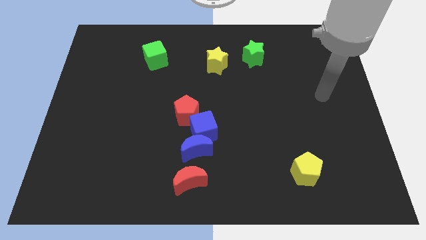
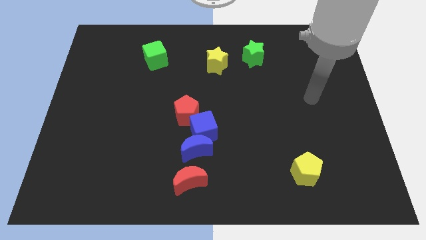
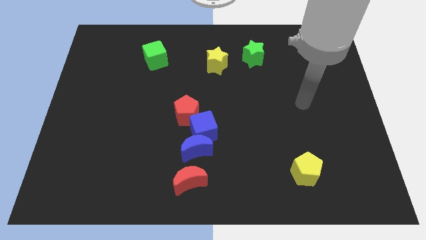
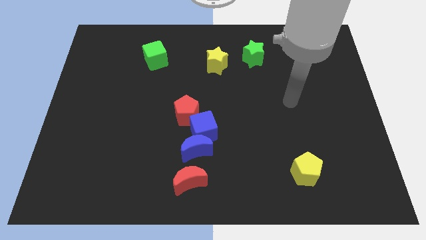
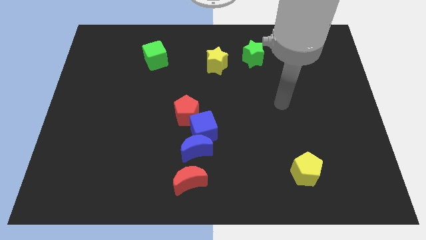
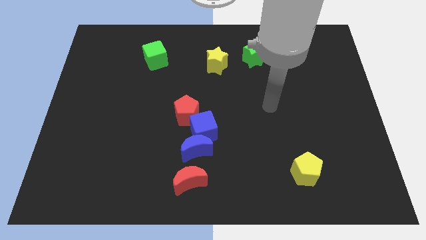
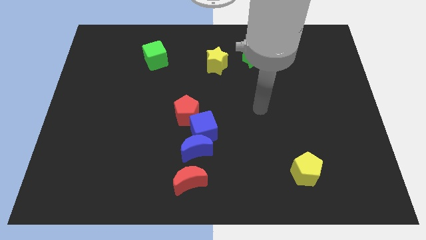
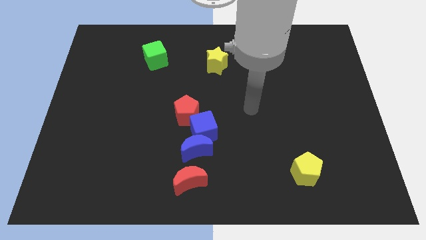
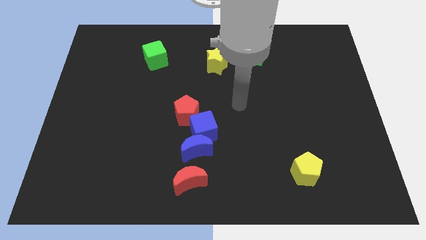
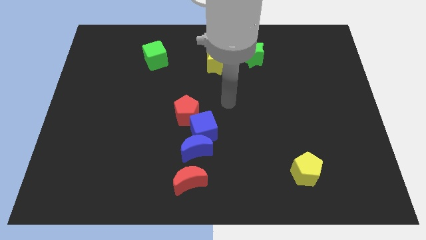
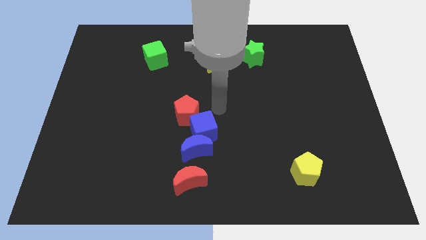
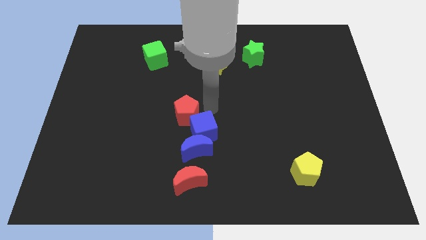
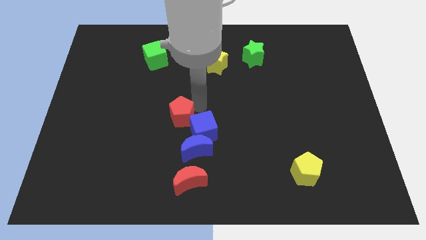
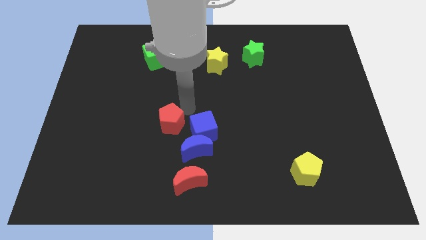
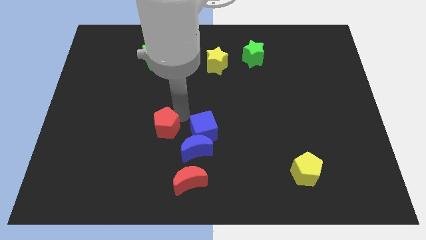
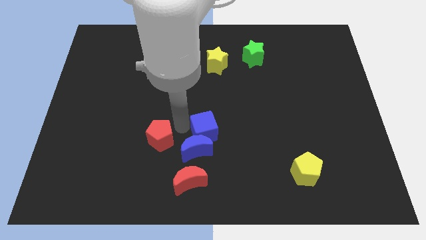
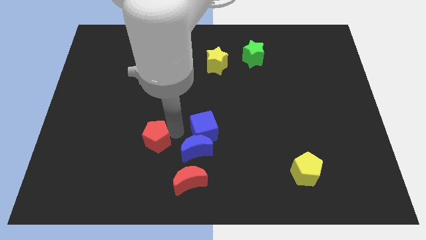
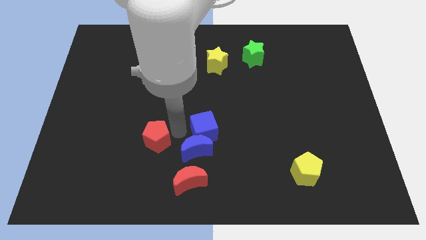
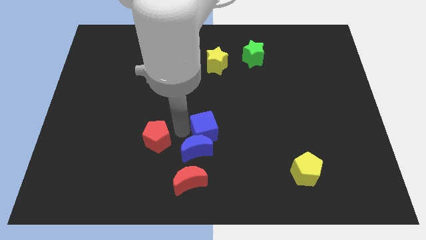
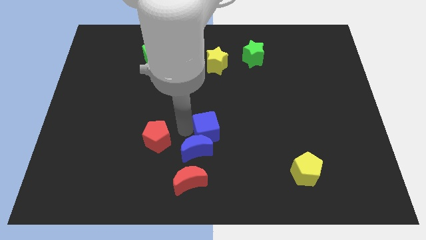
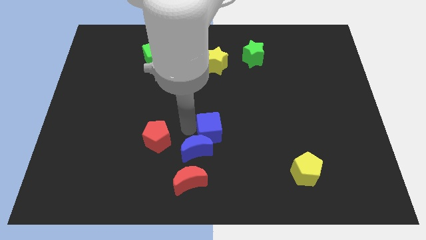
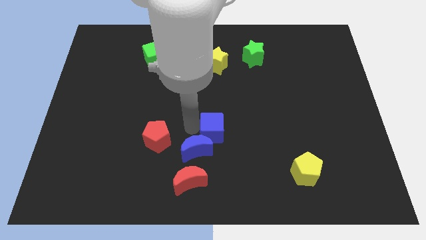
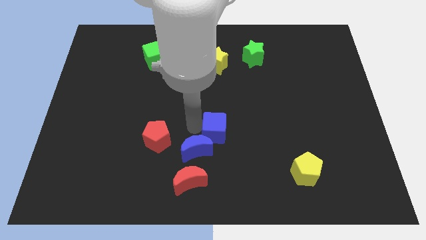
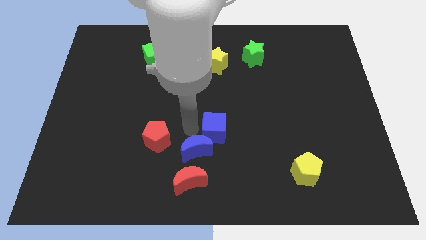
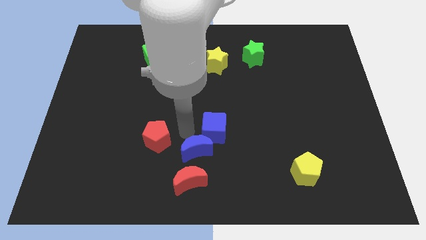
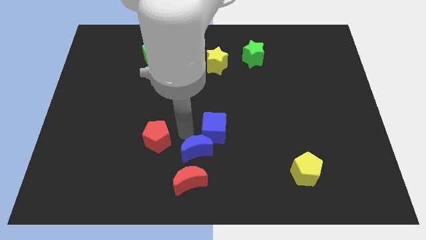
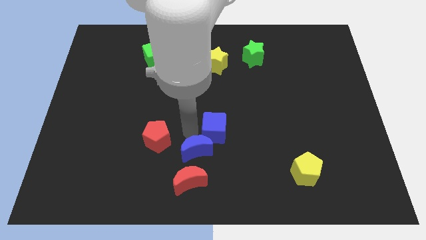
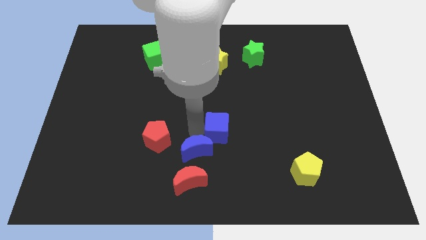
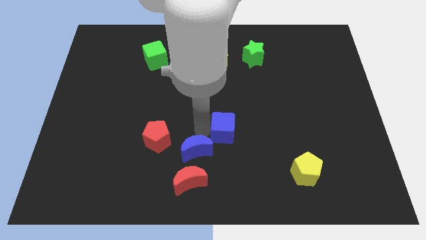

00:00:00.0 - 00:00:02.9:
move the blue cube away from the blue moon and red pentagon

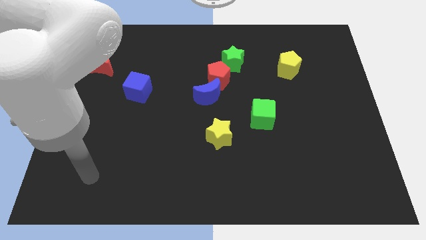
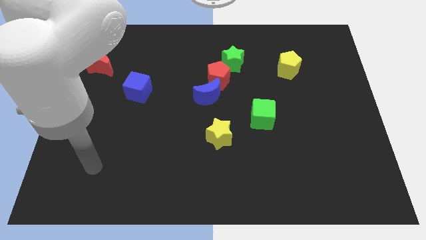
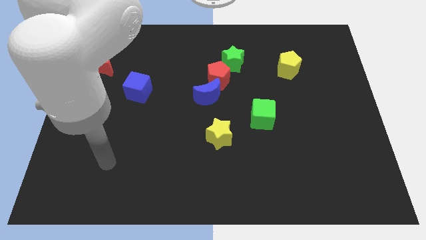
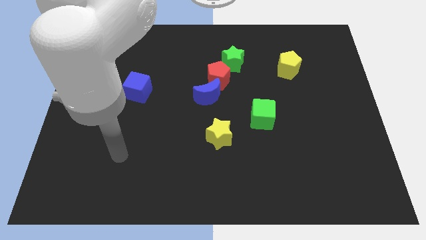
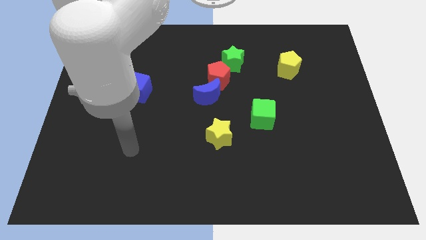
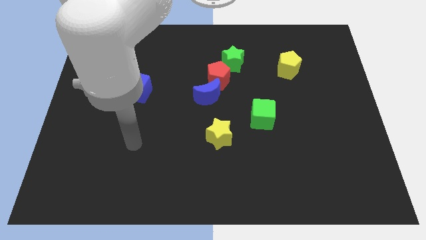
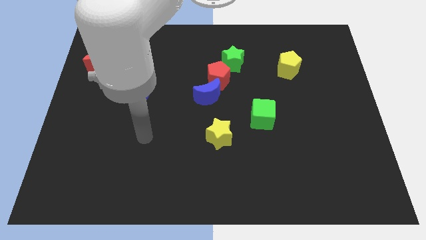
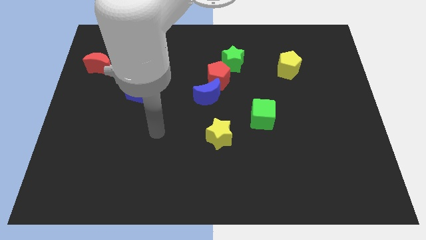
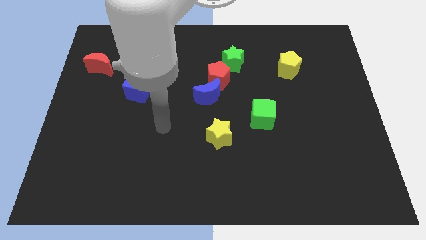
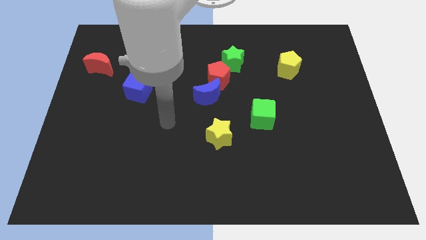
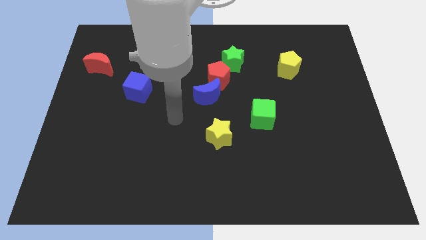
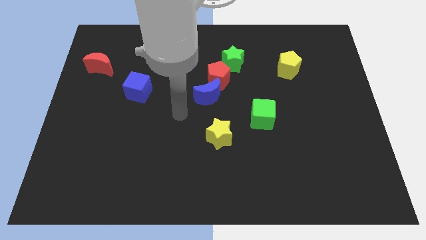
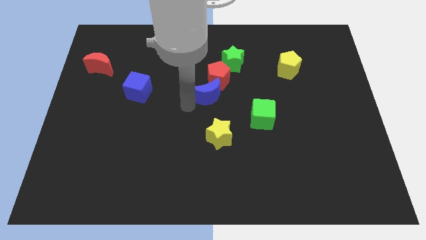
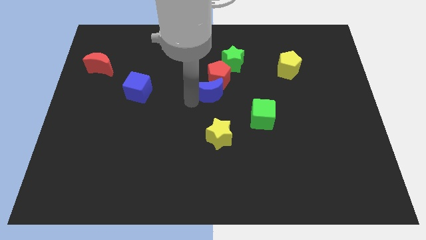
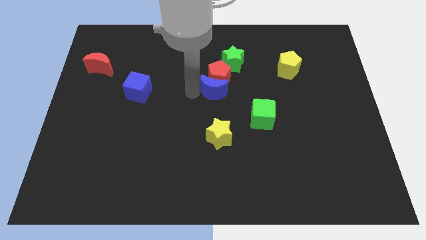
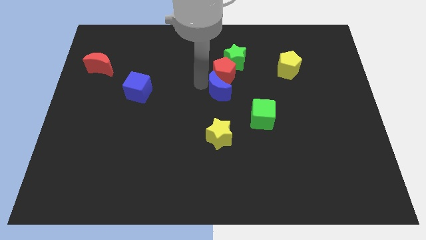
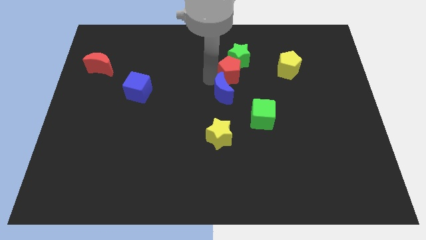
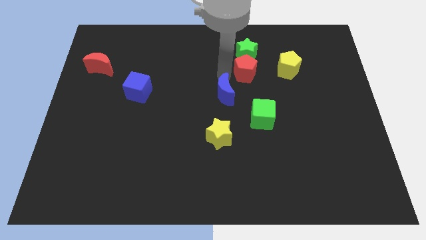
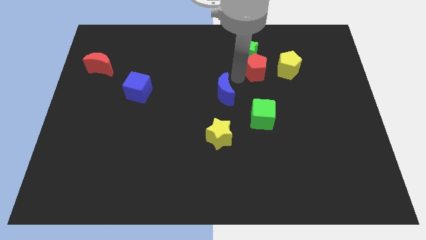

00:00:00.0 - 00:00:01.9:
move the blue moon away from the red pentagon

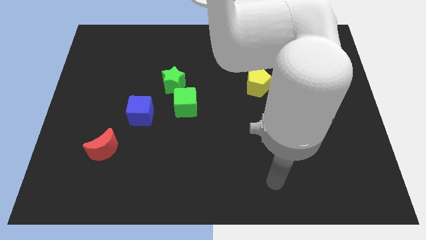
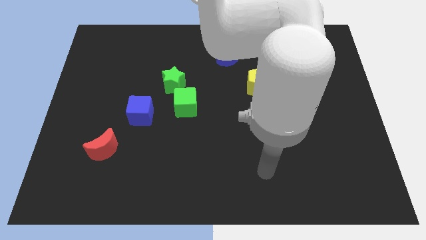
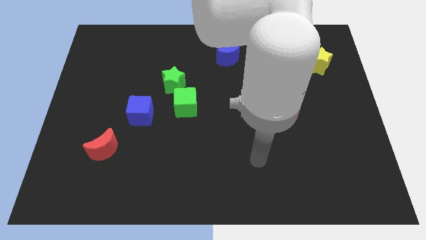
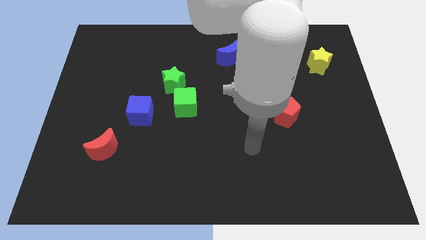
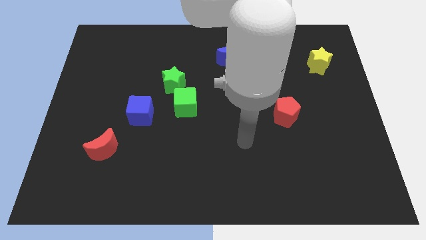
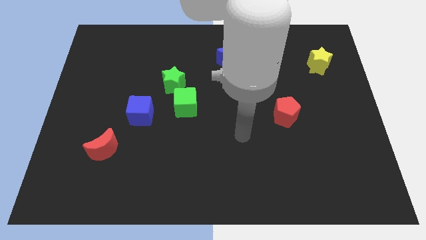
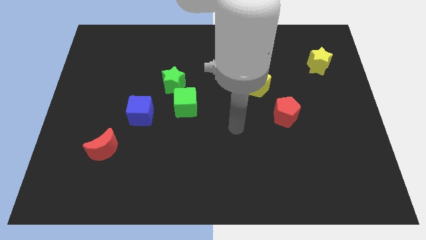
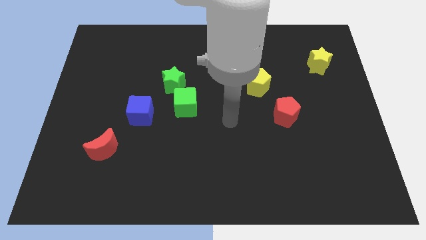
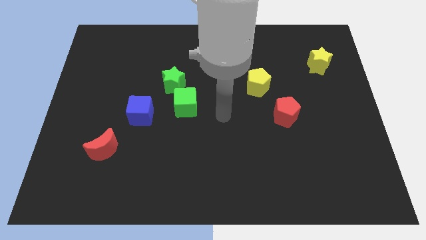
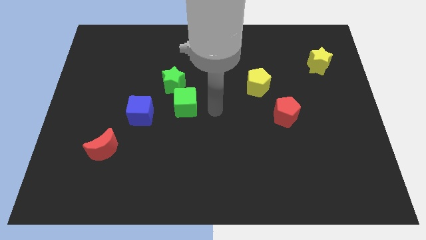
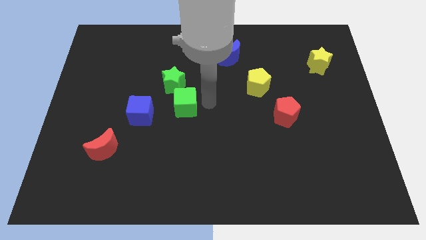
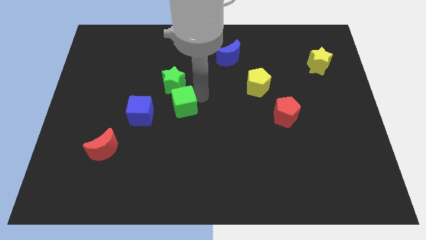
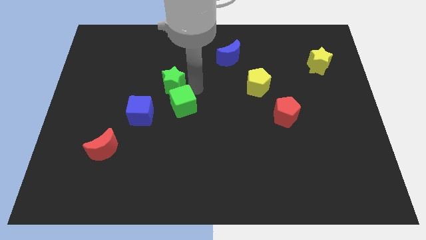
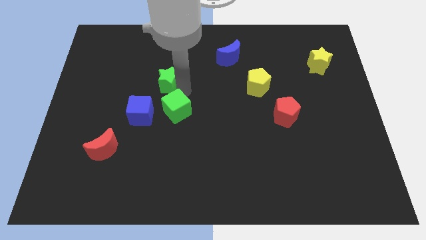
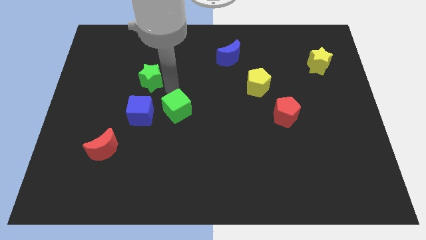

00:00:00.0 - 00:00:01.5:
pull the green cube apart from the green star

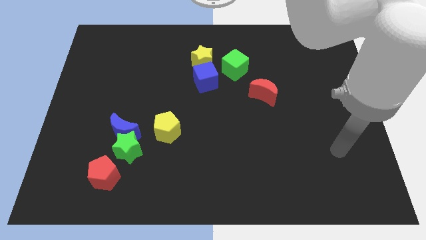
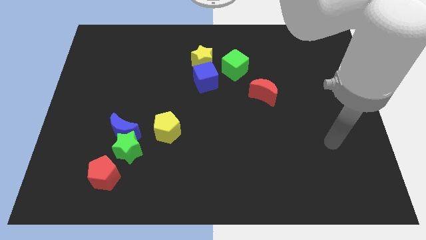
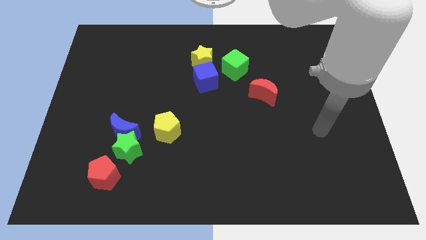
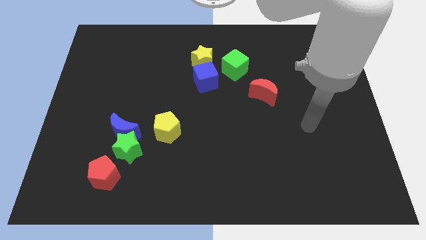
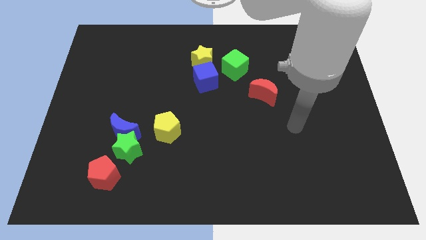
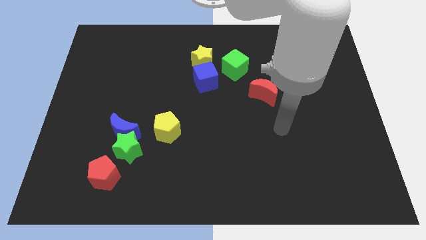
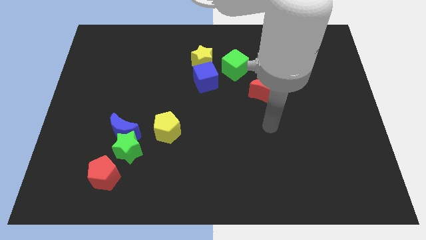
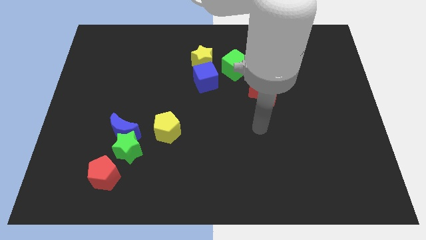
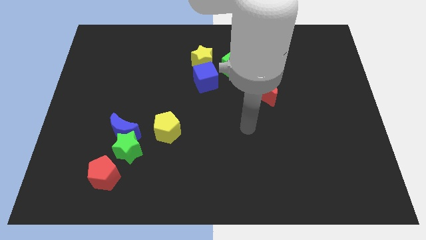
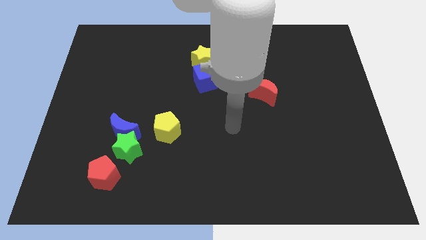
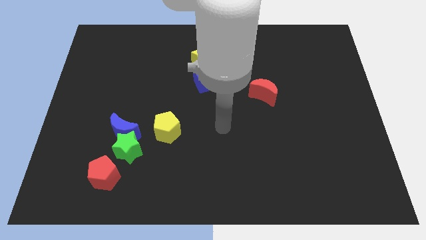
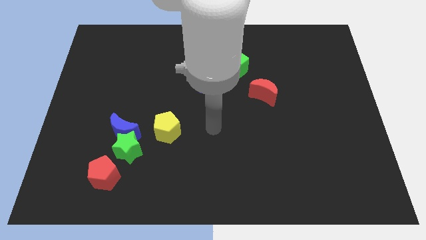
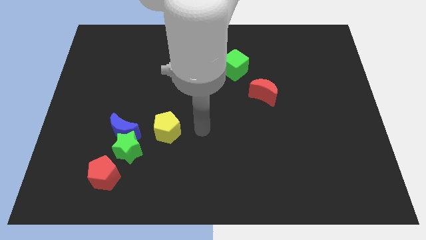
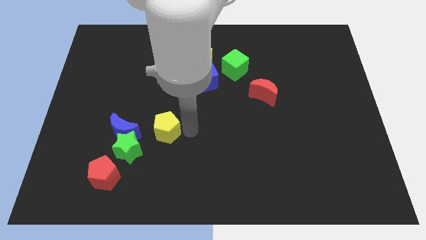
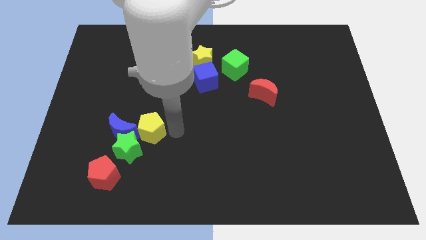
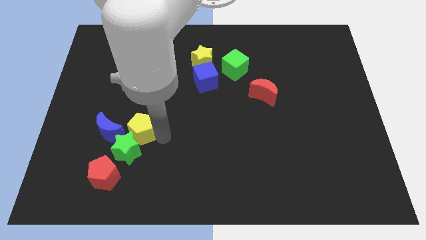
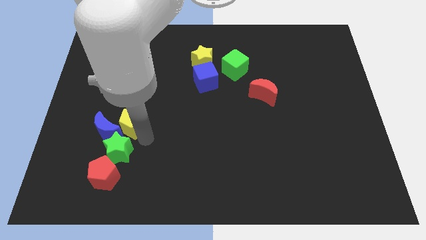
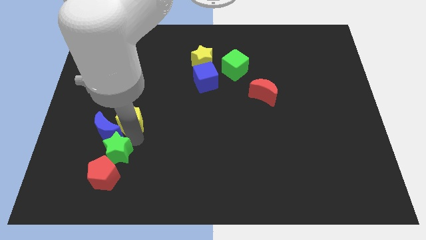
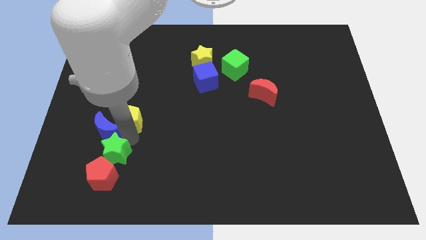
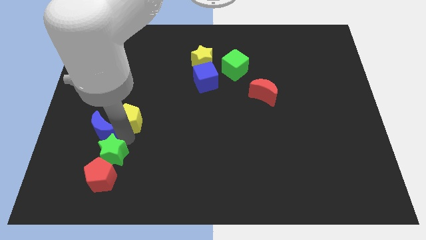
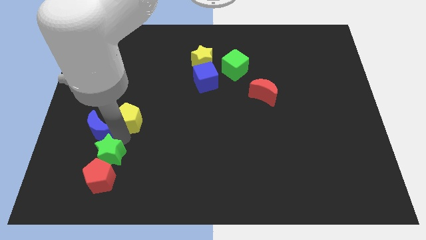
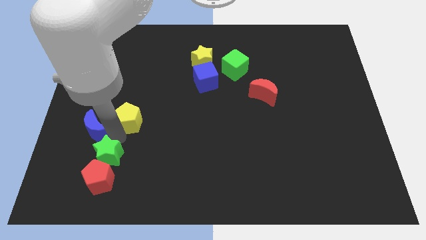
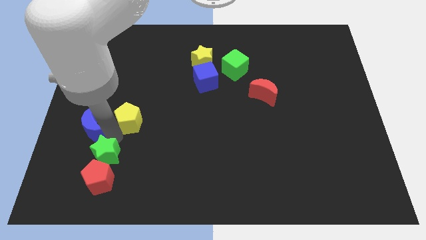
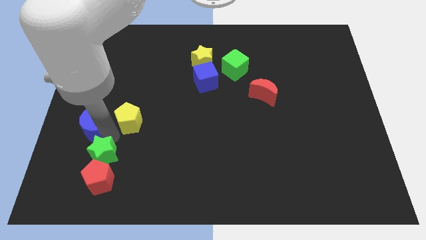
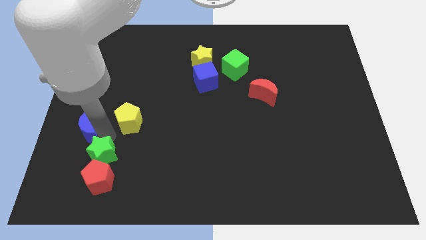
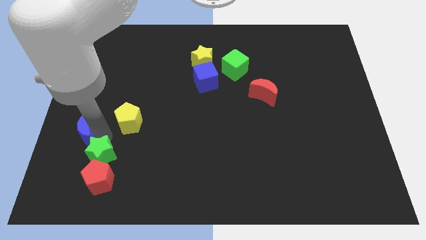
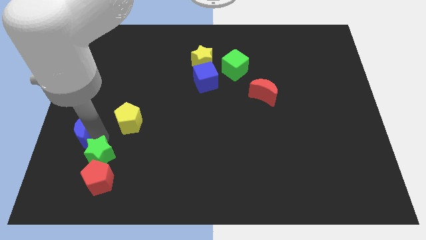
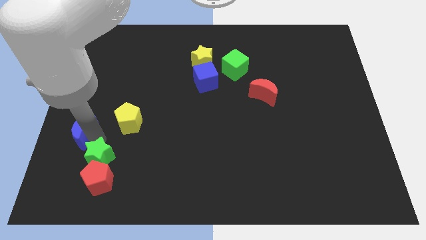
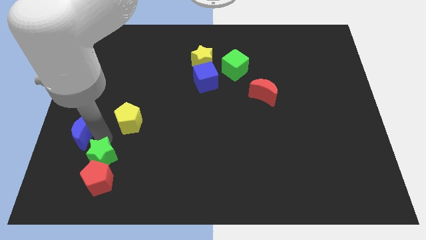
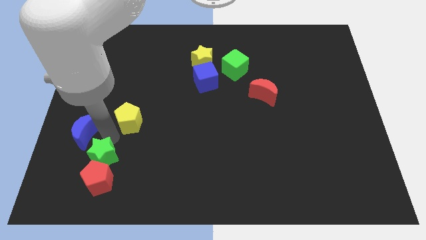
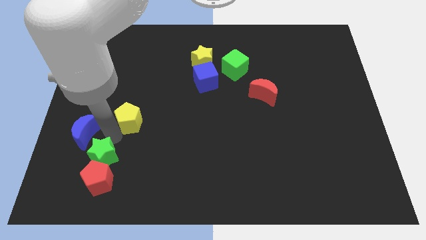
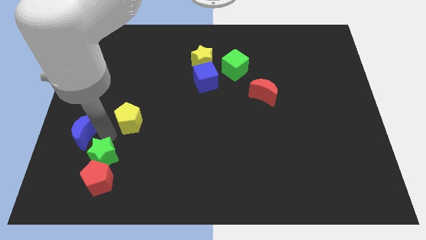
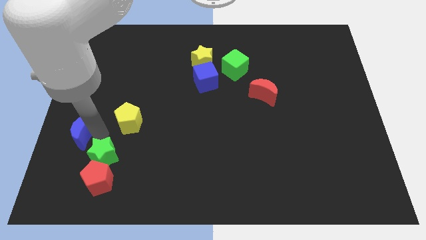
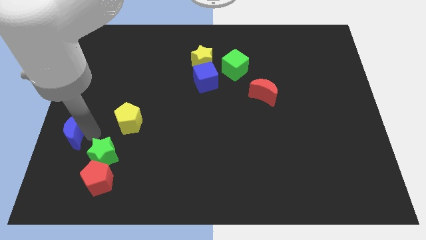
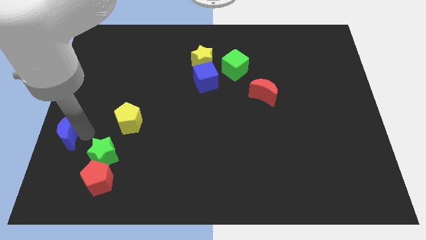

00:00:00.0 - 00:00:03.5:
move the blue moon away from the green star and yellow pentagon
